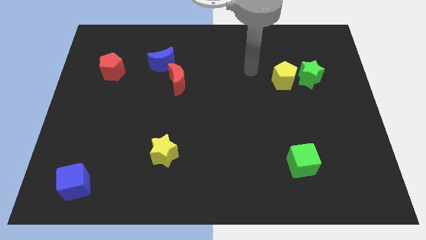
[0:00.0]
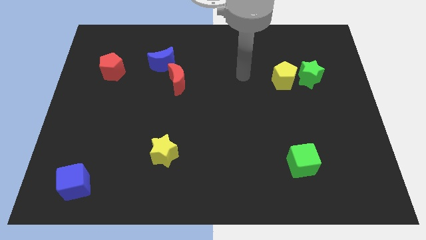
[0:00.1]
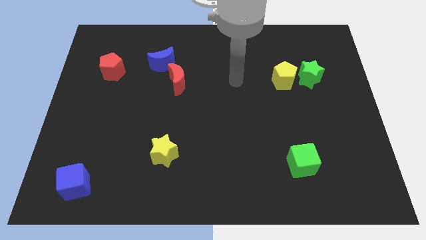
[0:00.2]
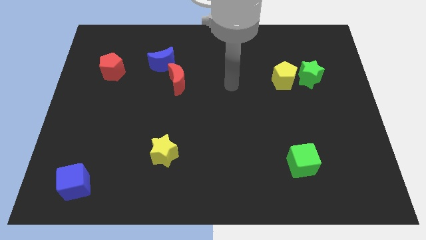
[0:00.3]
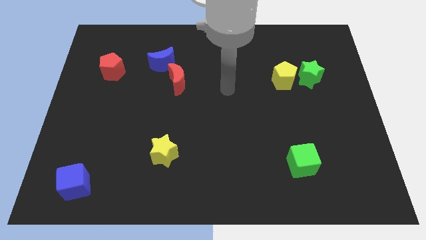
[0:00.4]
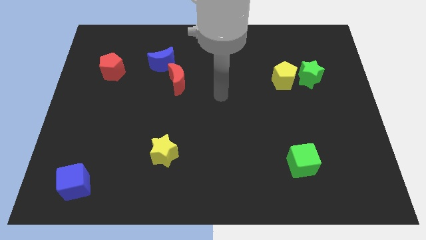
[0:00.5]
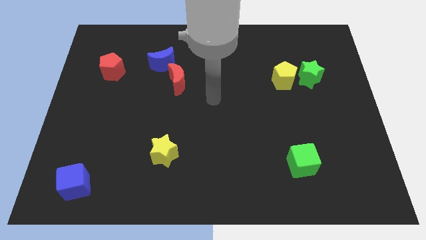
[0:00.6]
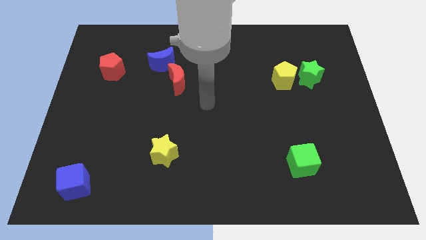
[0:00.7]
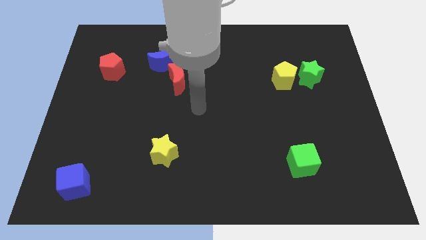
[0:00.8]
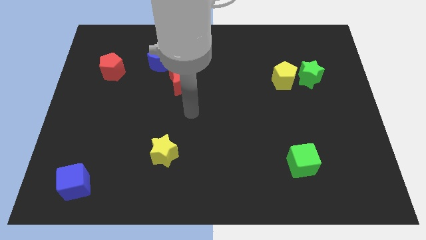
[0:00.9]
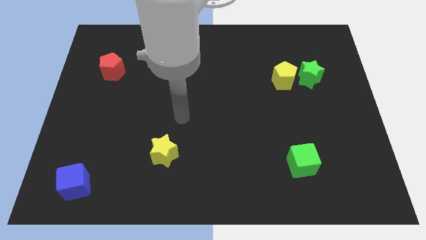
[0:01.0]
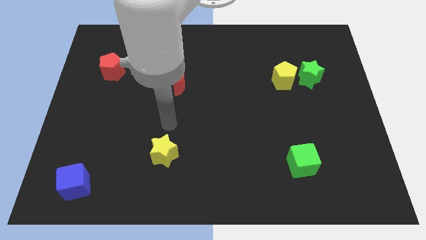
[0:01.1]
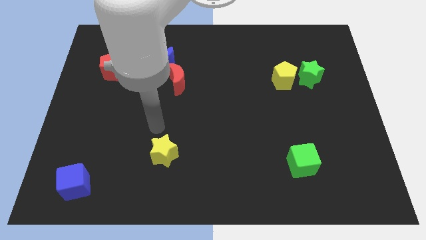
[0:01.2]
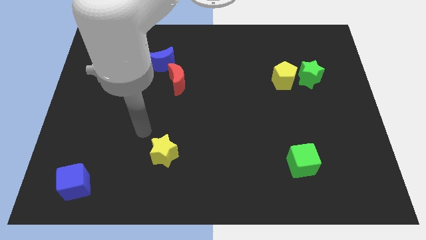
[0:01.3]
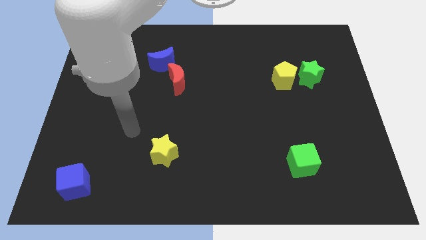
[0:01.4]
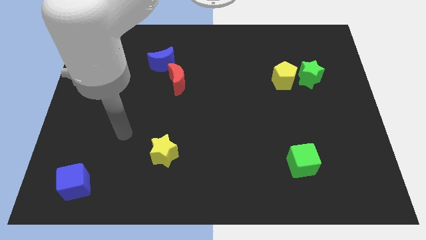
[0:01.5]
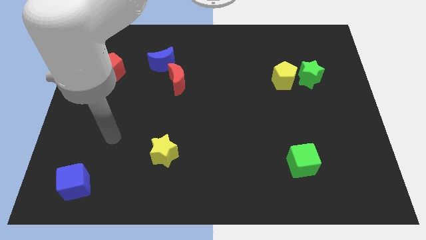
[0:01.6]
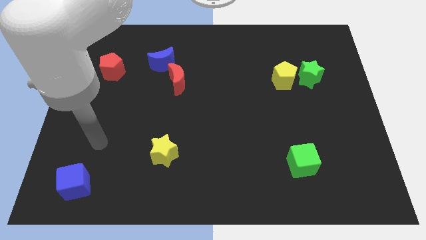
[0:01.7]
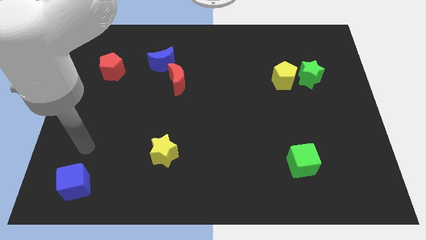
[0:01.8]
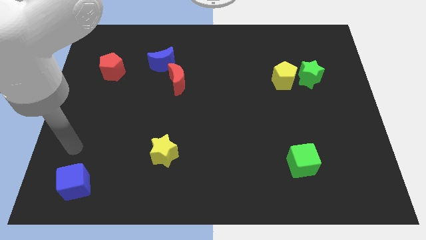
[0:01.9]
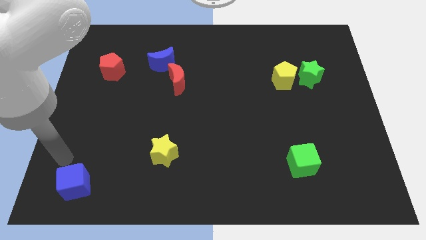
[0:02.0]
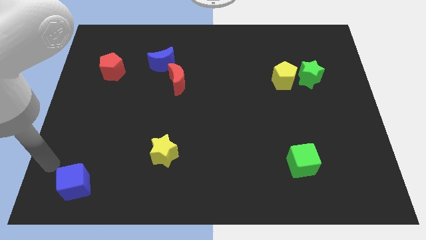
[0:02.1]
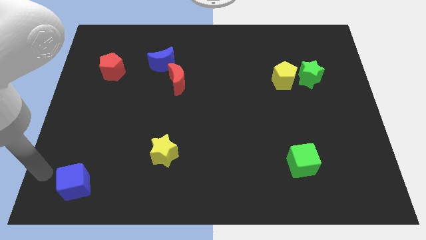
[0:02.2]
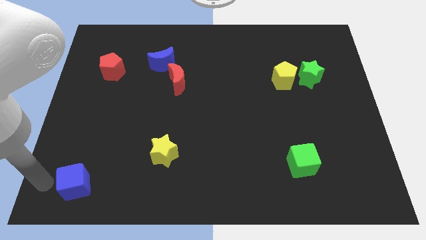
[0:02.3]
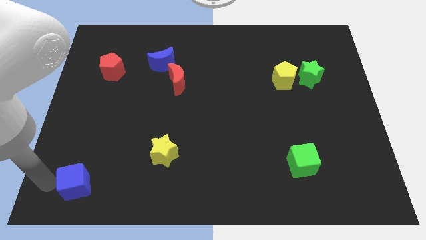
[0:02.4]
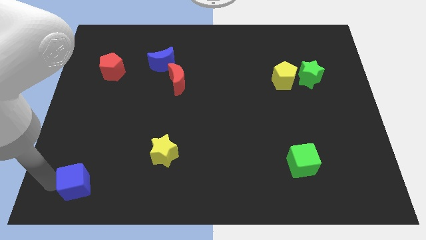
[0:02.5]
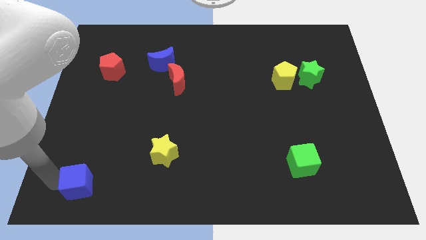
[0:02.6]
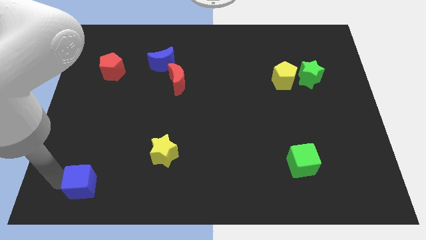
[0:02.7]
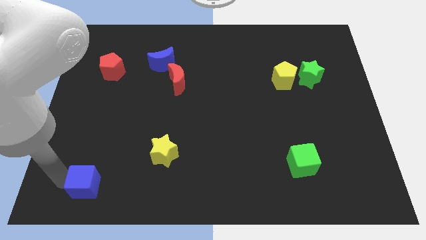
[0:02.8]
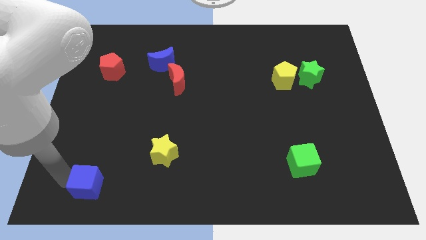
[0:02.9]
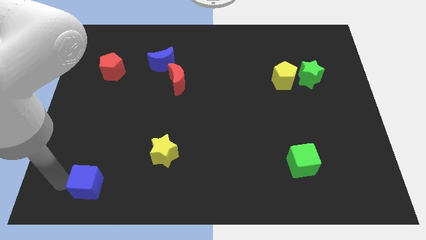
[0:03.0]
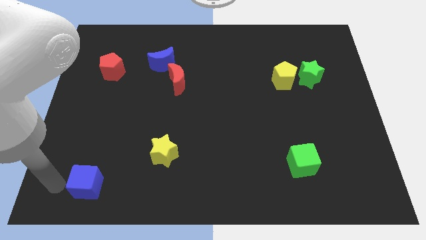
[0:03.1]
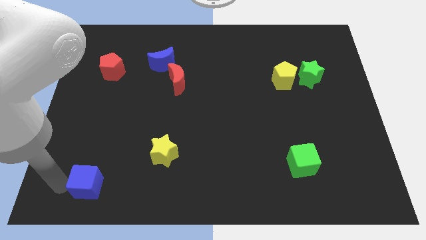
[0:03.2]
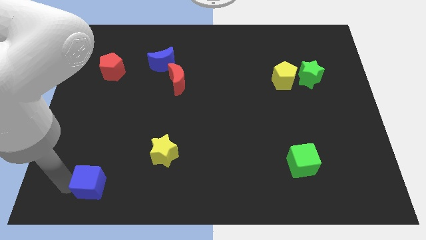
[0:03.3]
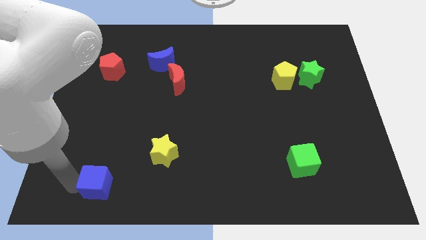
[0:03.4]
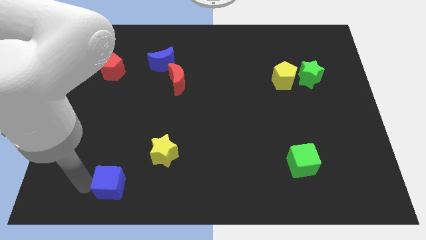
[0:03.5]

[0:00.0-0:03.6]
move the blue cube right slightly

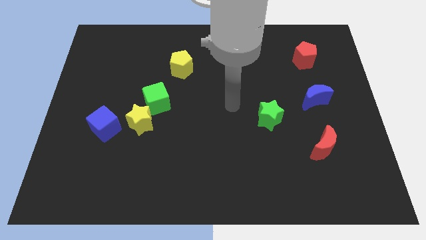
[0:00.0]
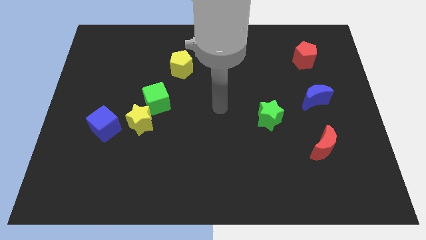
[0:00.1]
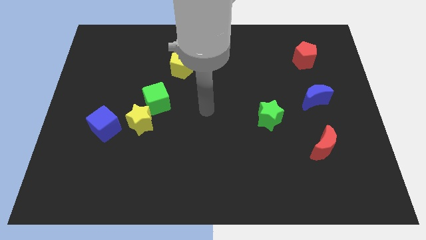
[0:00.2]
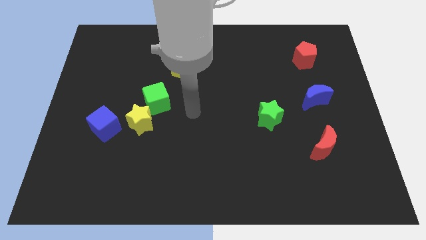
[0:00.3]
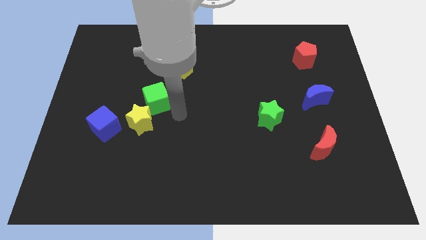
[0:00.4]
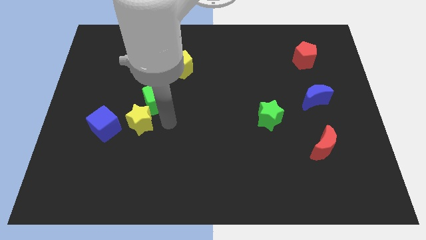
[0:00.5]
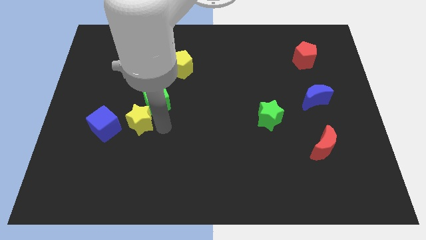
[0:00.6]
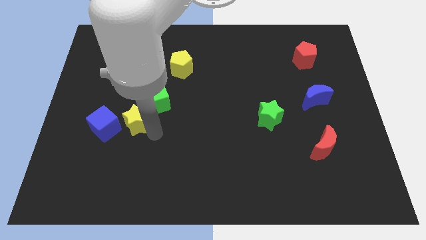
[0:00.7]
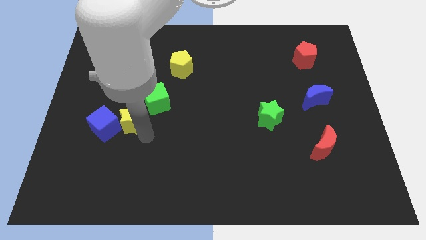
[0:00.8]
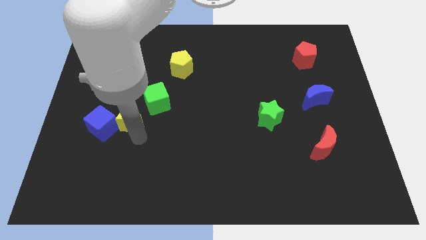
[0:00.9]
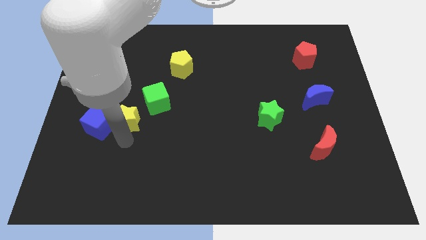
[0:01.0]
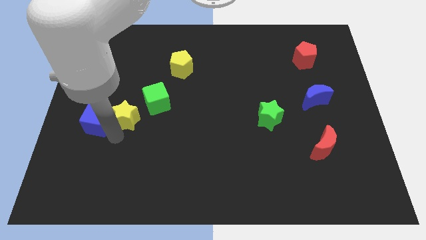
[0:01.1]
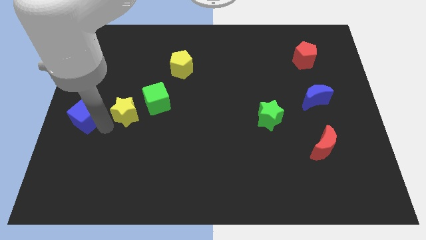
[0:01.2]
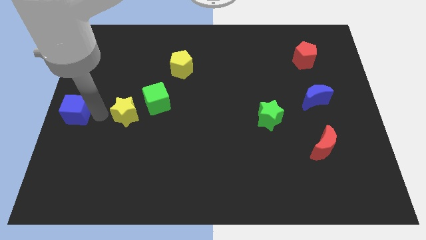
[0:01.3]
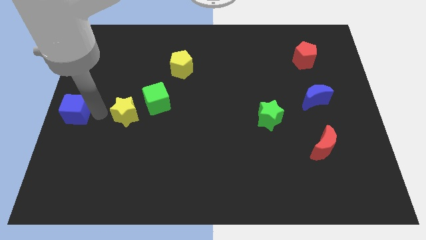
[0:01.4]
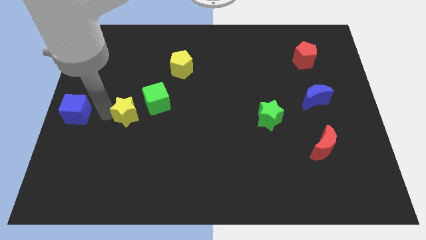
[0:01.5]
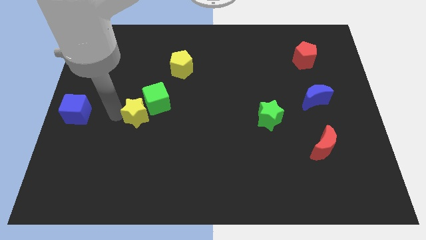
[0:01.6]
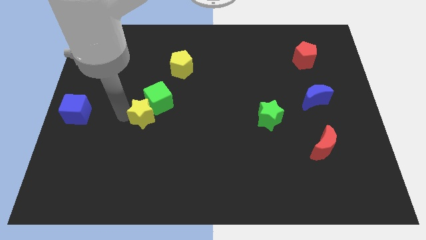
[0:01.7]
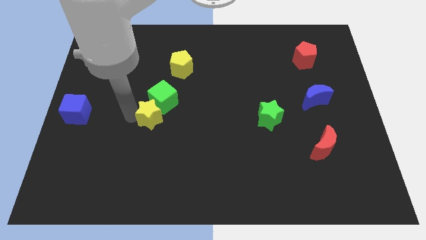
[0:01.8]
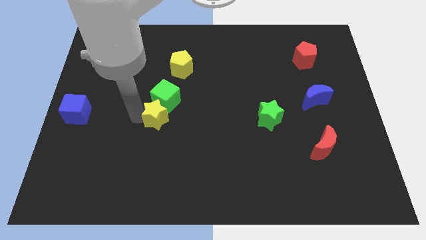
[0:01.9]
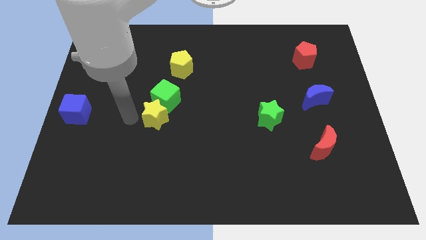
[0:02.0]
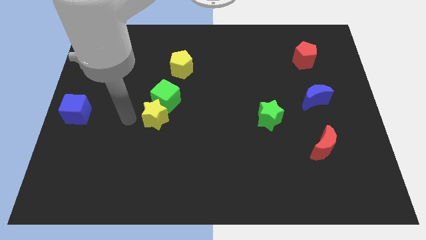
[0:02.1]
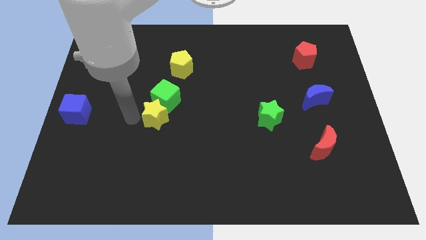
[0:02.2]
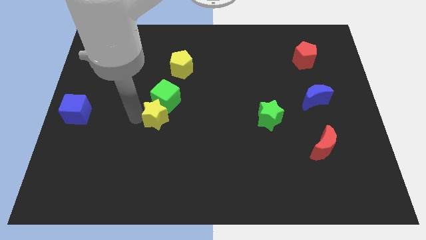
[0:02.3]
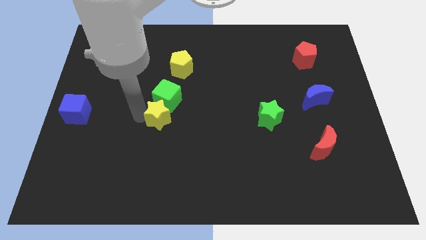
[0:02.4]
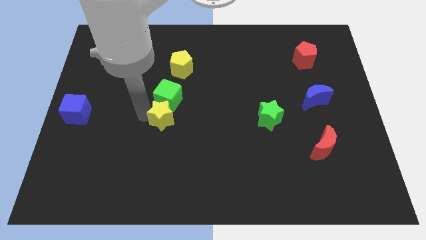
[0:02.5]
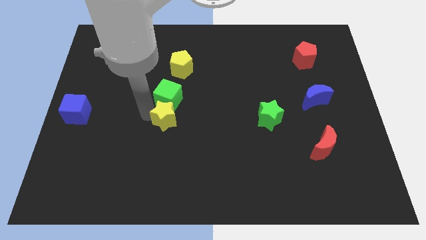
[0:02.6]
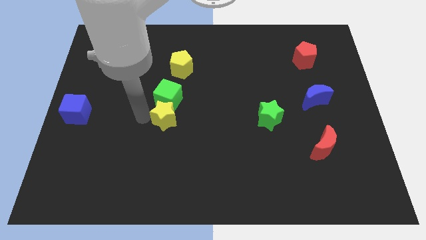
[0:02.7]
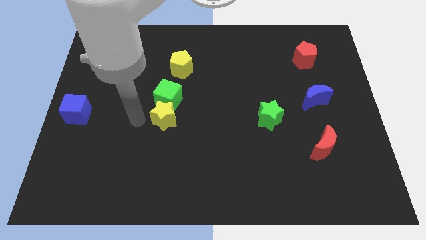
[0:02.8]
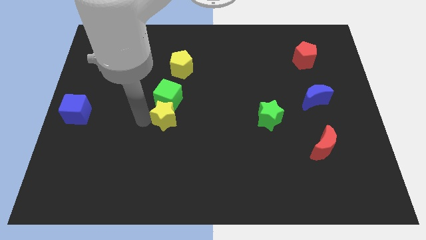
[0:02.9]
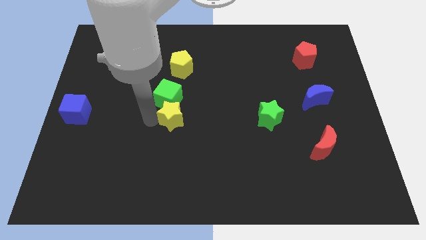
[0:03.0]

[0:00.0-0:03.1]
move the yellow star right a bit

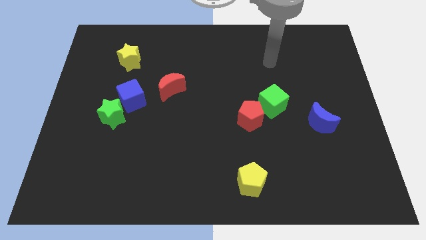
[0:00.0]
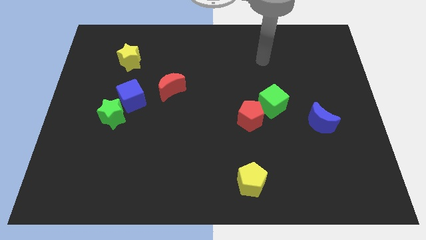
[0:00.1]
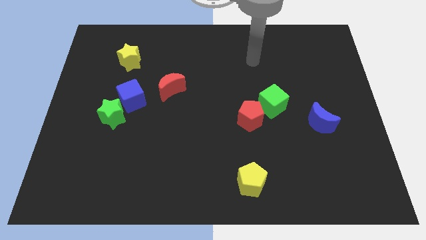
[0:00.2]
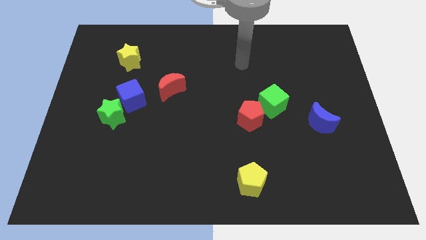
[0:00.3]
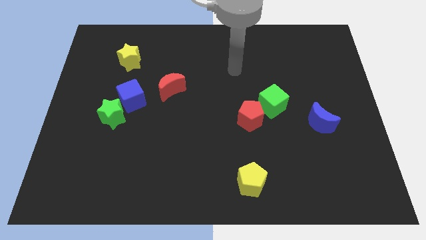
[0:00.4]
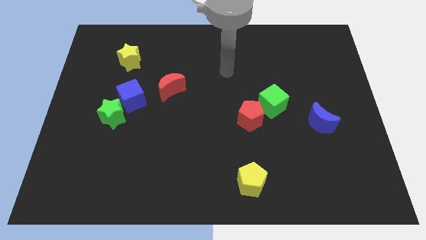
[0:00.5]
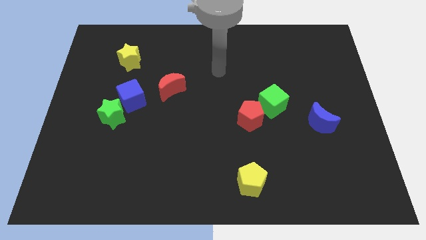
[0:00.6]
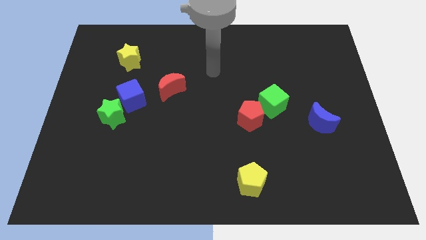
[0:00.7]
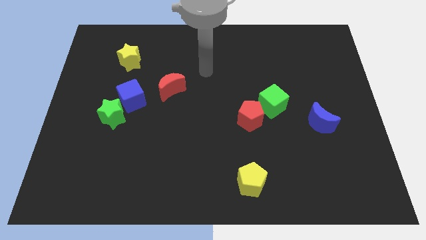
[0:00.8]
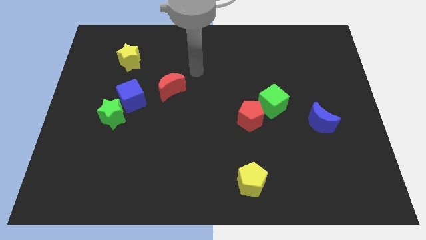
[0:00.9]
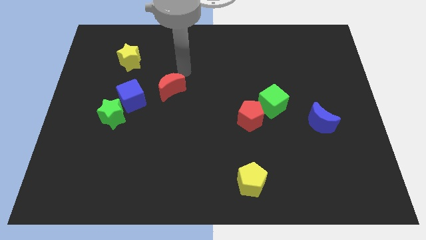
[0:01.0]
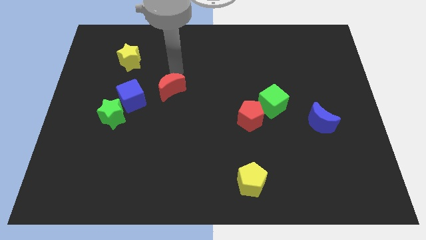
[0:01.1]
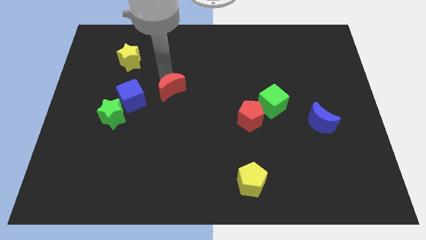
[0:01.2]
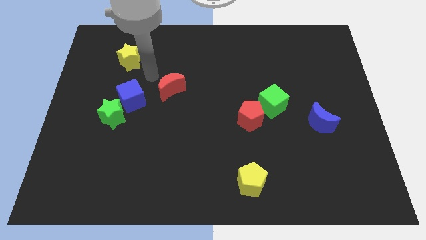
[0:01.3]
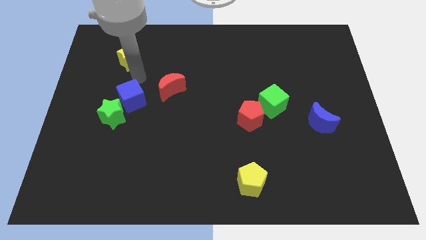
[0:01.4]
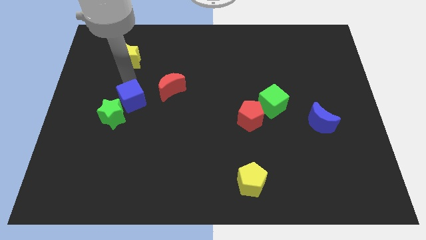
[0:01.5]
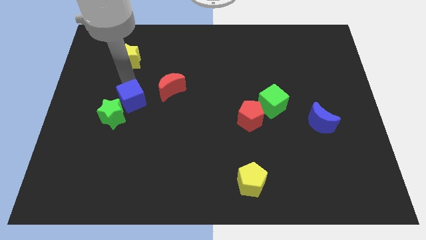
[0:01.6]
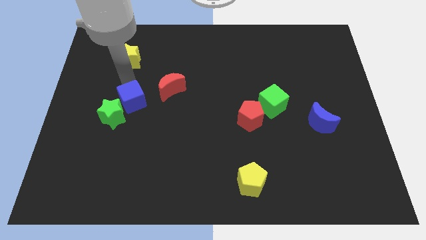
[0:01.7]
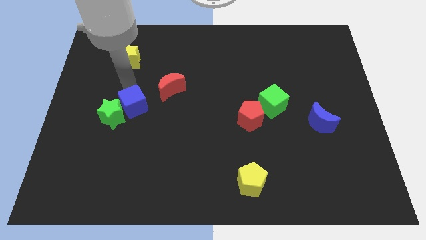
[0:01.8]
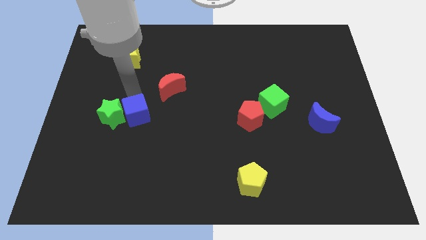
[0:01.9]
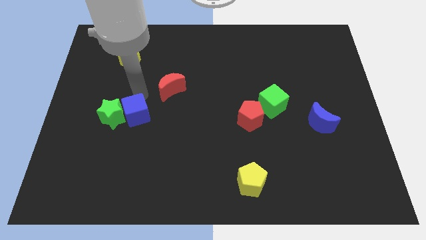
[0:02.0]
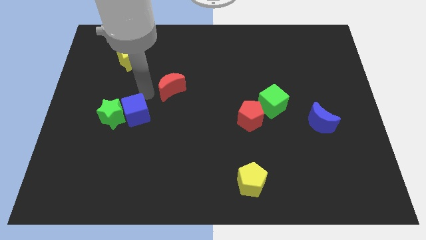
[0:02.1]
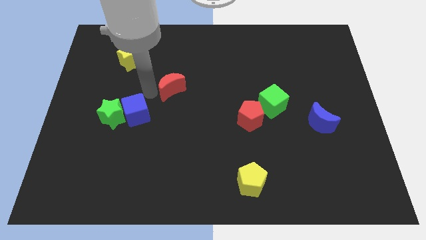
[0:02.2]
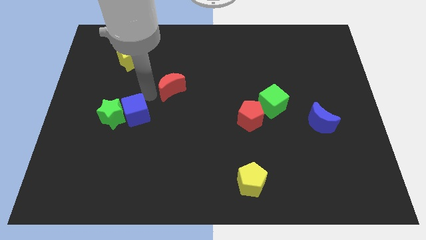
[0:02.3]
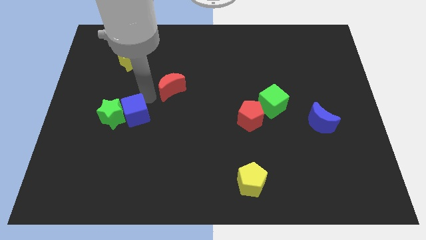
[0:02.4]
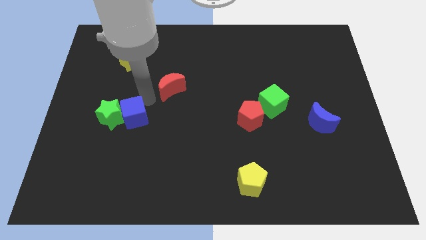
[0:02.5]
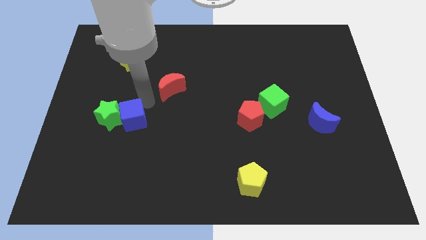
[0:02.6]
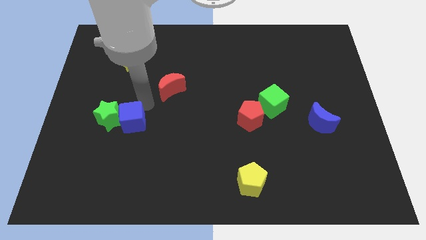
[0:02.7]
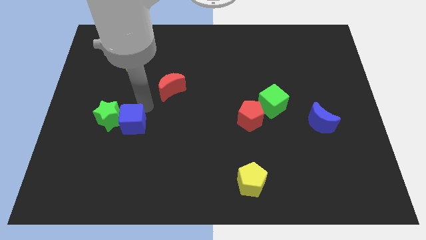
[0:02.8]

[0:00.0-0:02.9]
slightly slide the blue cube downwards
